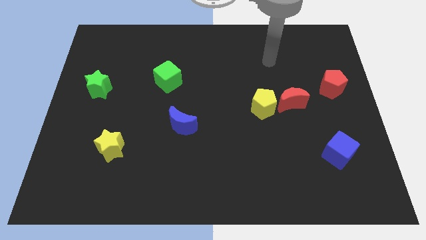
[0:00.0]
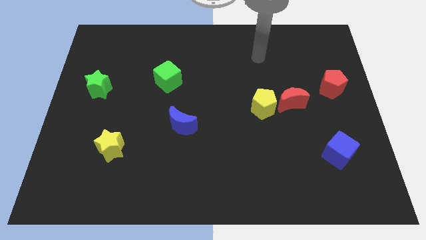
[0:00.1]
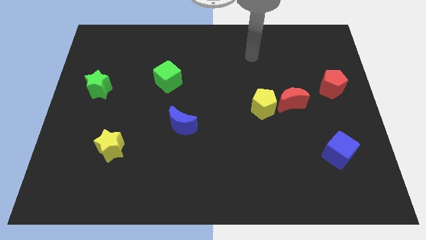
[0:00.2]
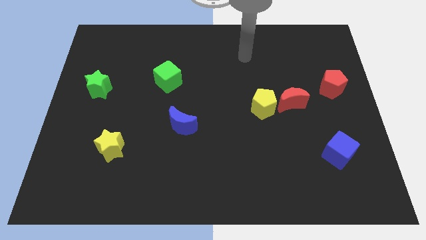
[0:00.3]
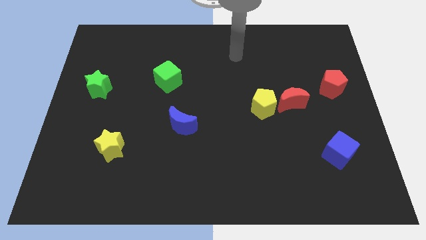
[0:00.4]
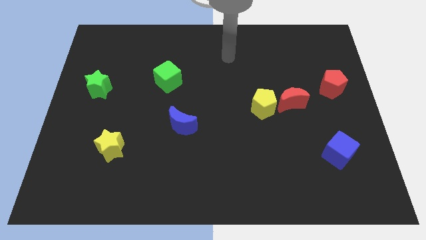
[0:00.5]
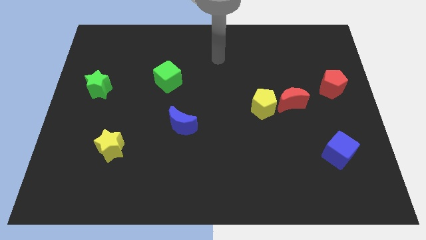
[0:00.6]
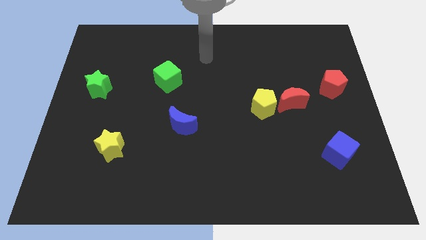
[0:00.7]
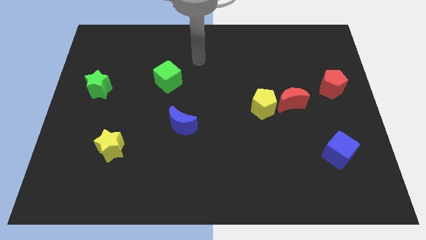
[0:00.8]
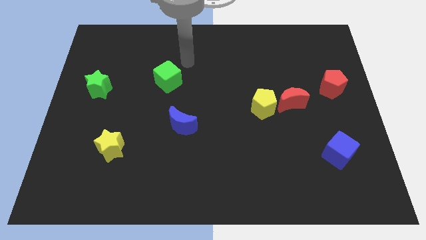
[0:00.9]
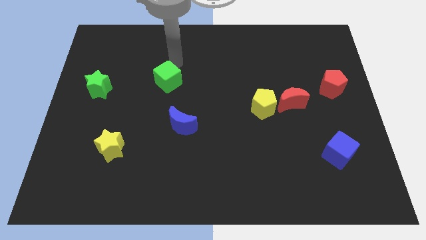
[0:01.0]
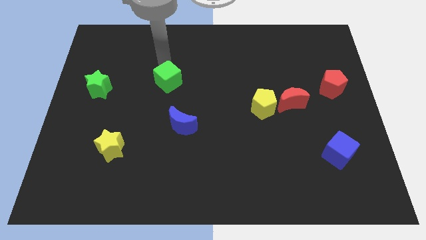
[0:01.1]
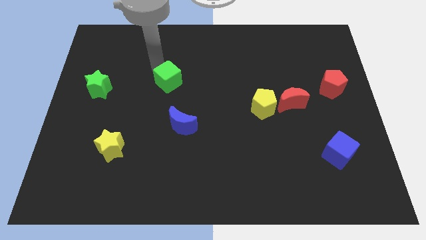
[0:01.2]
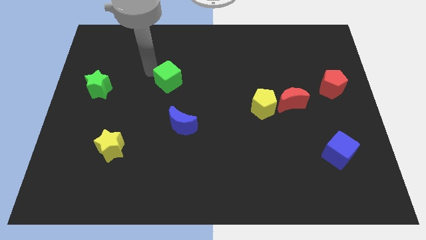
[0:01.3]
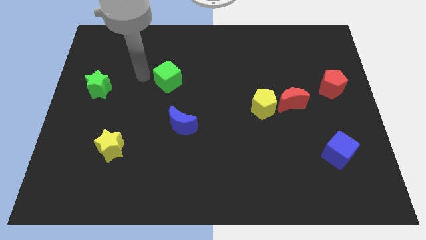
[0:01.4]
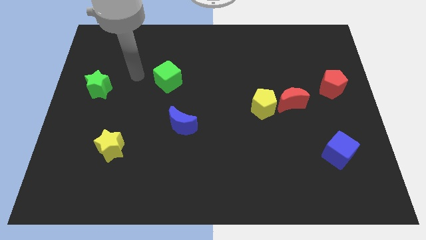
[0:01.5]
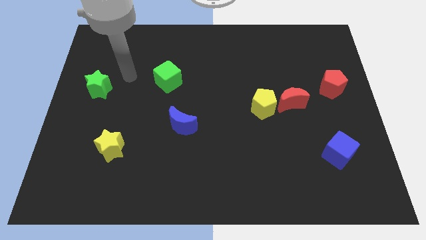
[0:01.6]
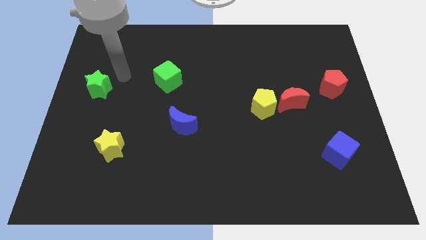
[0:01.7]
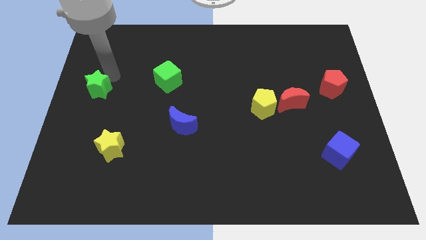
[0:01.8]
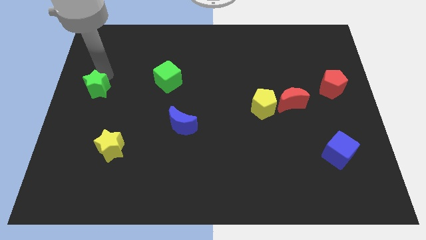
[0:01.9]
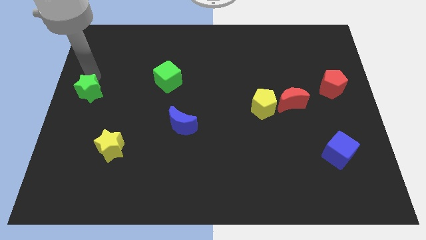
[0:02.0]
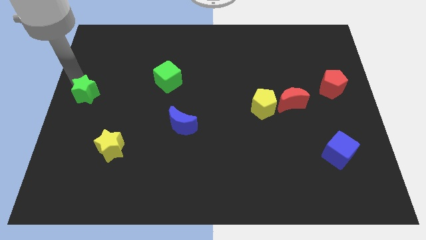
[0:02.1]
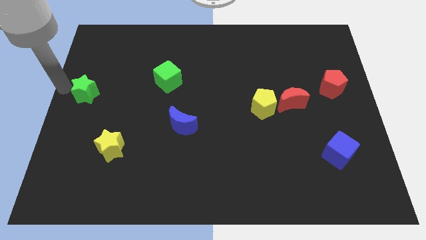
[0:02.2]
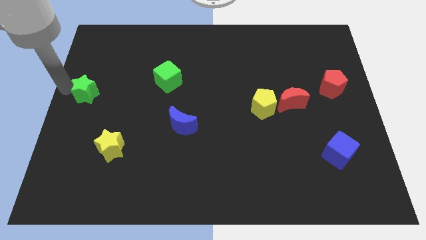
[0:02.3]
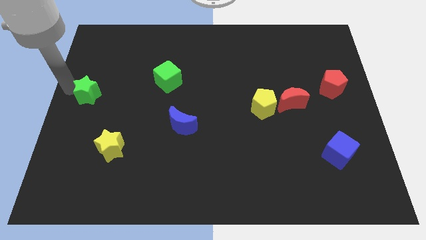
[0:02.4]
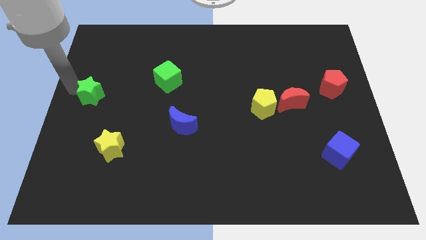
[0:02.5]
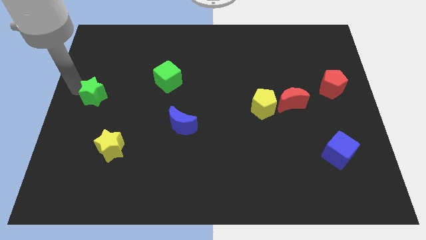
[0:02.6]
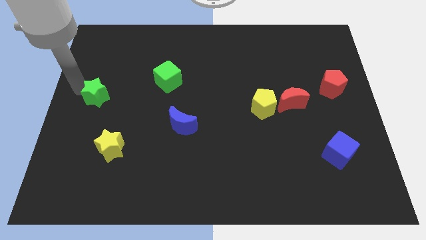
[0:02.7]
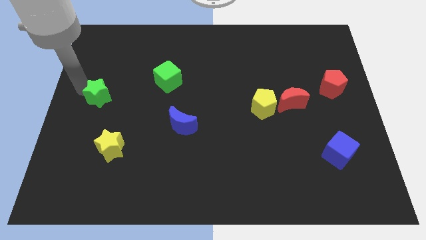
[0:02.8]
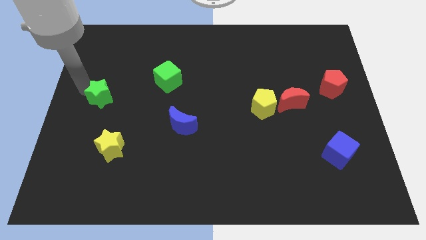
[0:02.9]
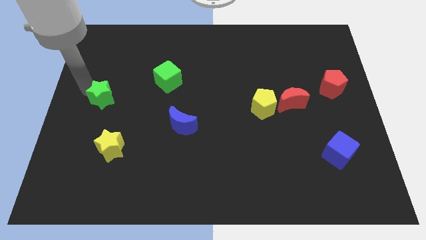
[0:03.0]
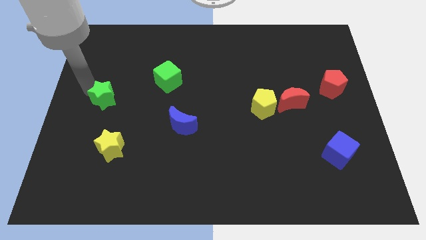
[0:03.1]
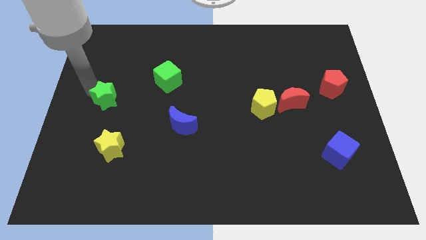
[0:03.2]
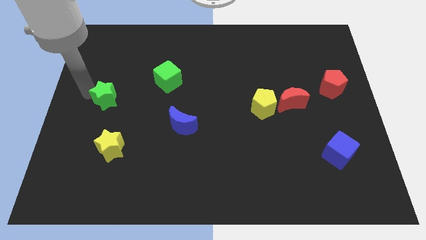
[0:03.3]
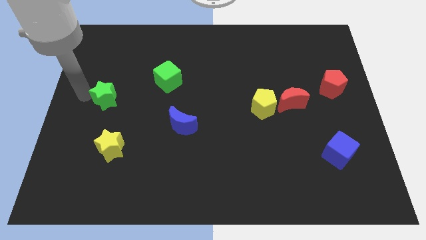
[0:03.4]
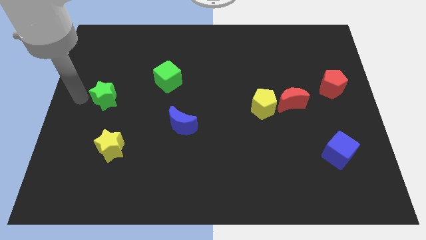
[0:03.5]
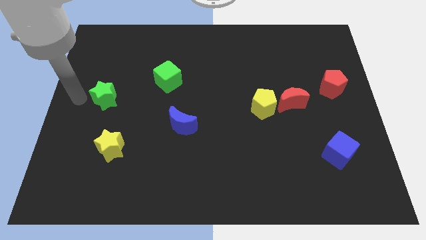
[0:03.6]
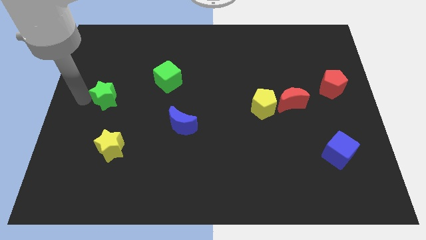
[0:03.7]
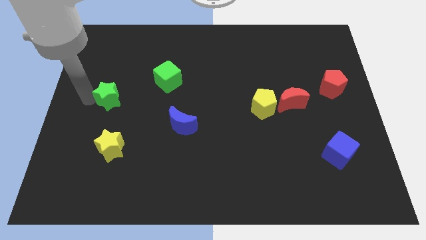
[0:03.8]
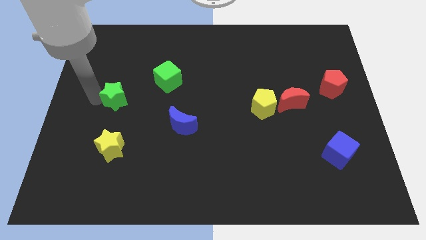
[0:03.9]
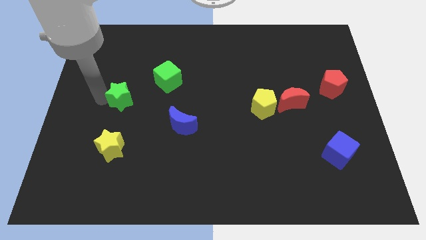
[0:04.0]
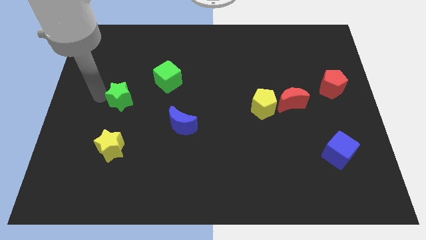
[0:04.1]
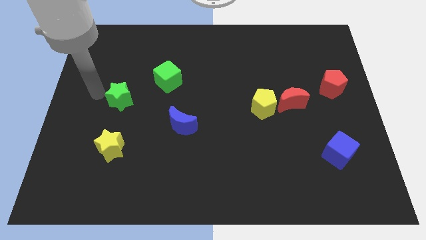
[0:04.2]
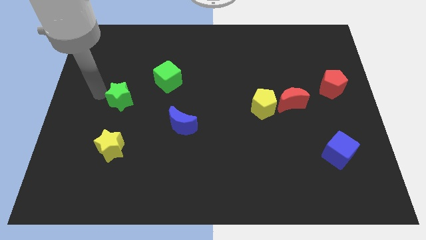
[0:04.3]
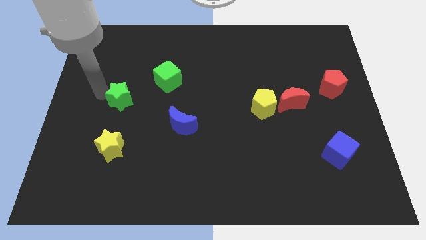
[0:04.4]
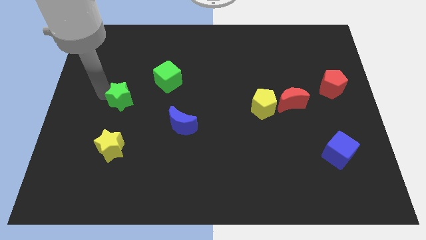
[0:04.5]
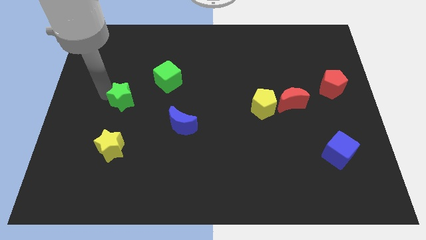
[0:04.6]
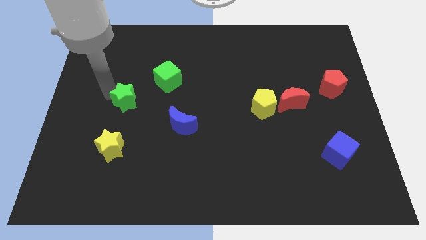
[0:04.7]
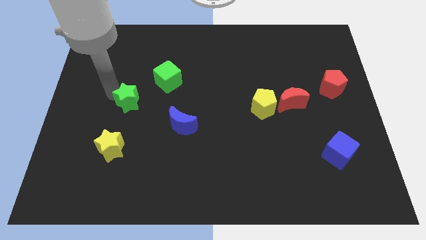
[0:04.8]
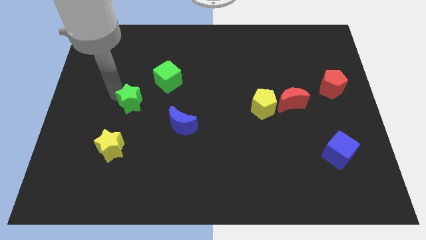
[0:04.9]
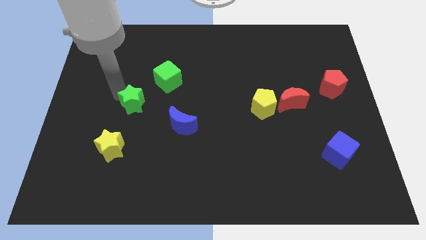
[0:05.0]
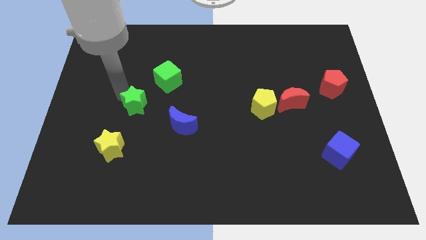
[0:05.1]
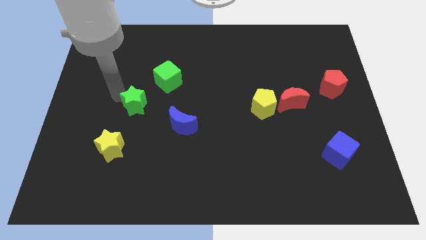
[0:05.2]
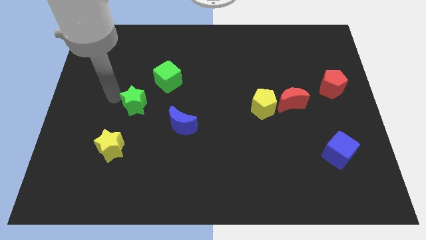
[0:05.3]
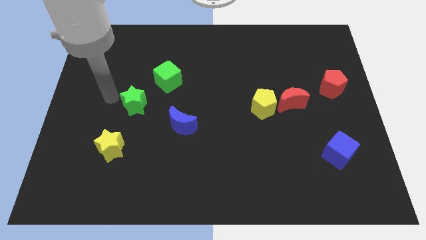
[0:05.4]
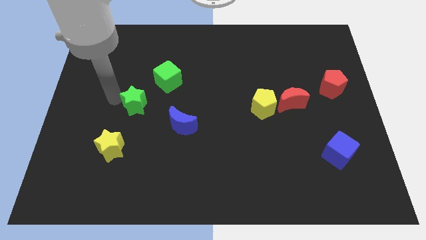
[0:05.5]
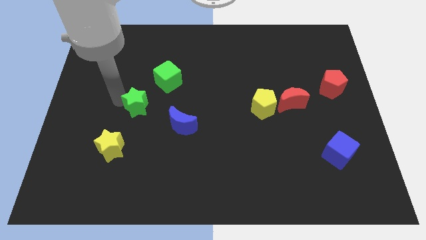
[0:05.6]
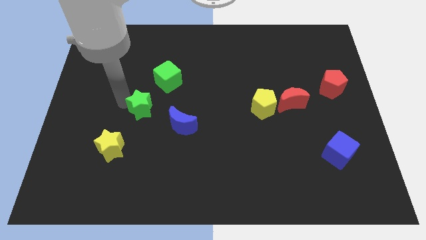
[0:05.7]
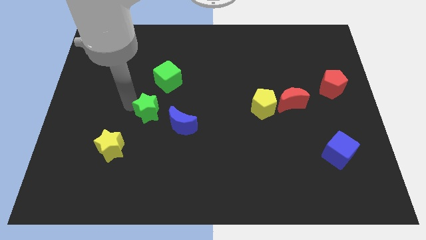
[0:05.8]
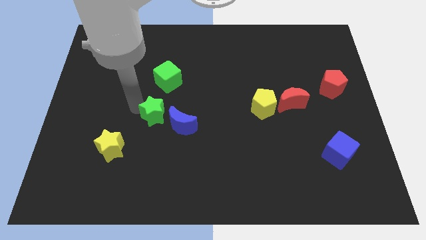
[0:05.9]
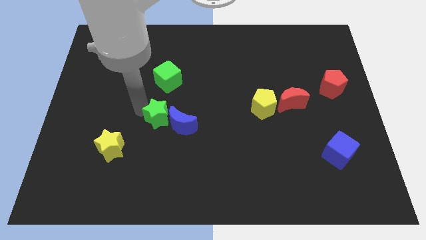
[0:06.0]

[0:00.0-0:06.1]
slide the green star to the blue moon
